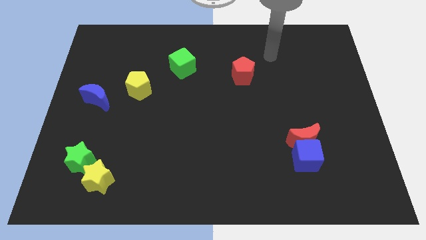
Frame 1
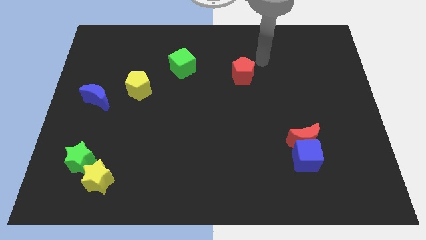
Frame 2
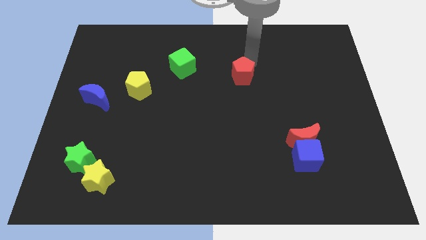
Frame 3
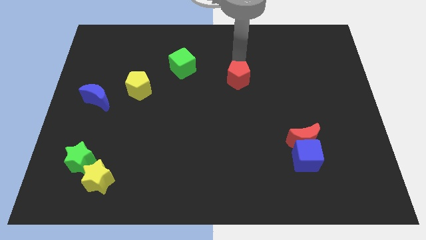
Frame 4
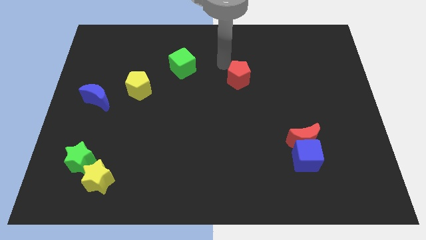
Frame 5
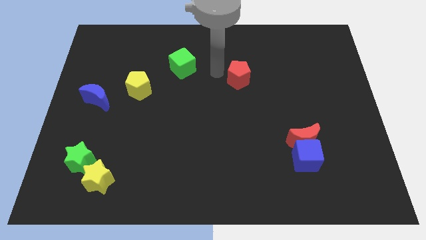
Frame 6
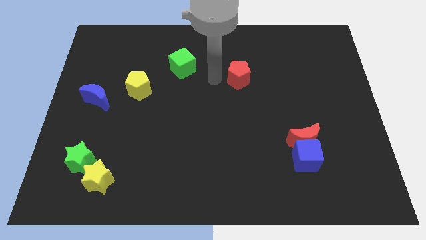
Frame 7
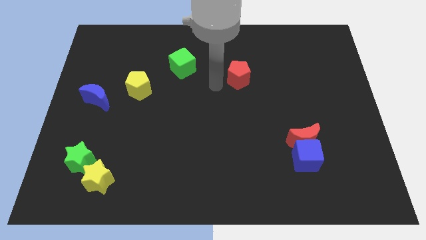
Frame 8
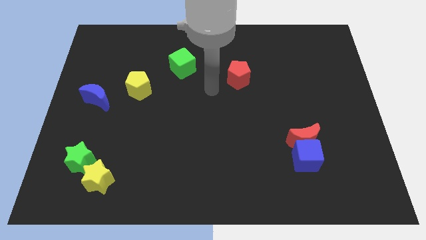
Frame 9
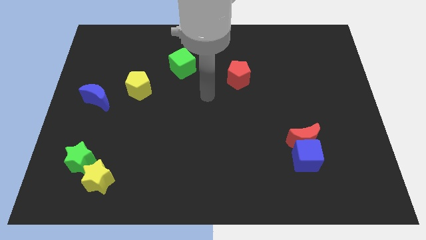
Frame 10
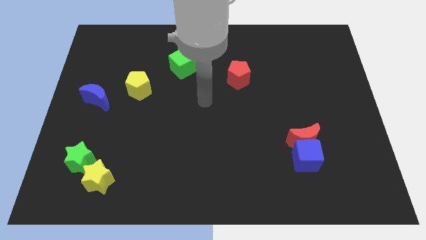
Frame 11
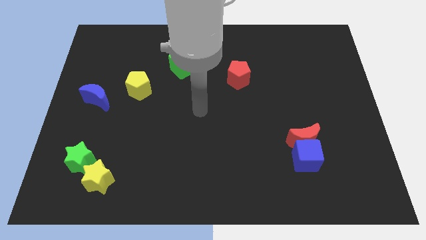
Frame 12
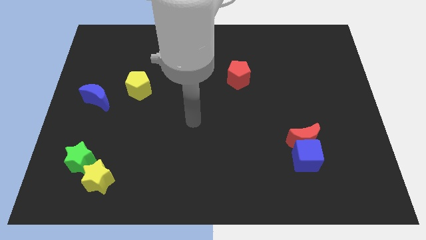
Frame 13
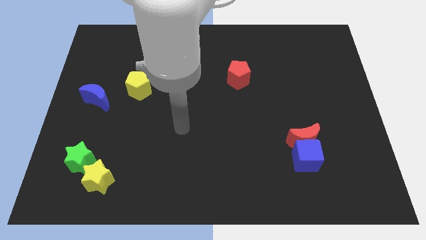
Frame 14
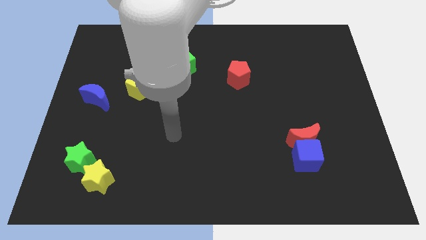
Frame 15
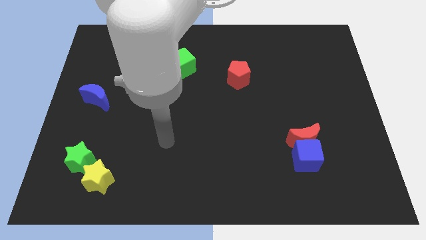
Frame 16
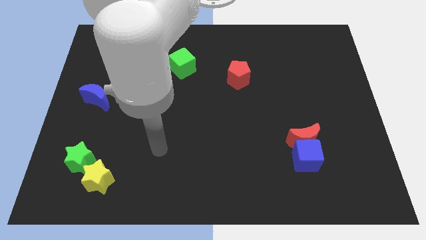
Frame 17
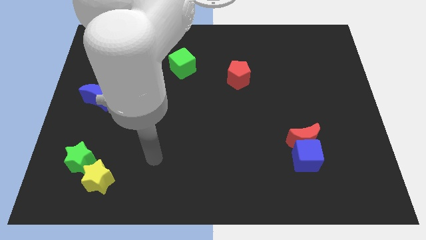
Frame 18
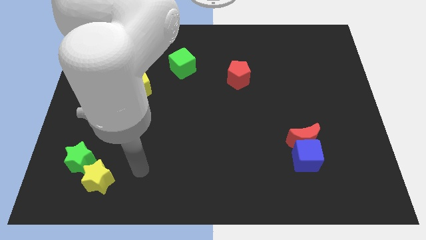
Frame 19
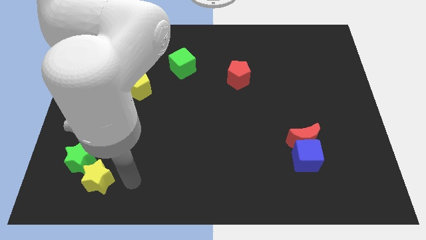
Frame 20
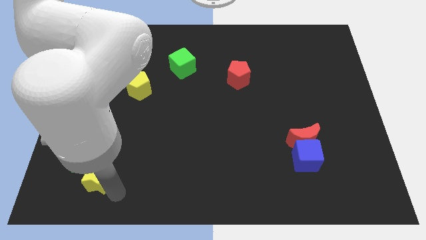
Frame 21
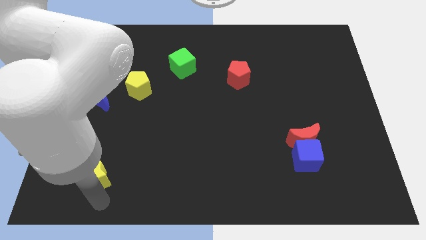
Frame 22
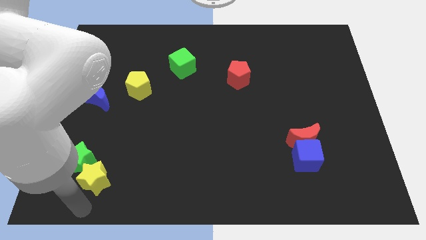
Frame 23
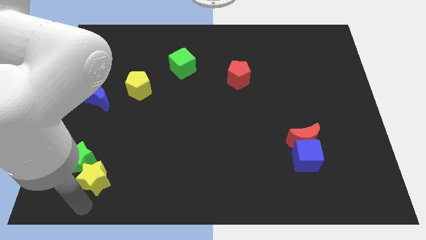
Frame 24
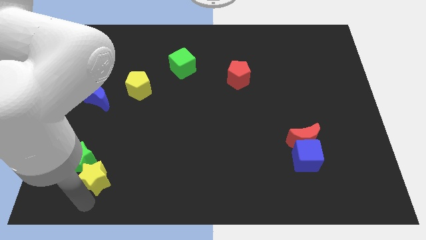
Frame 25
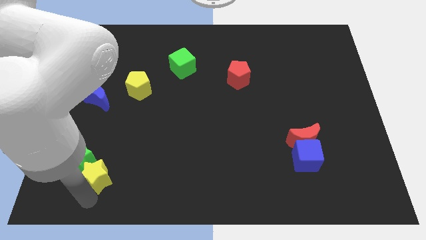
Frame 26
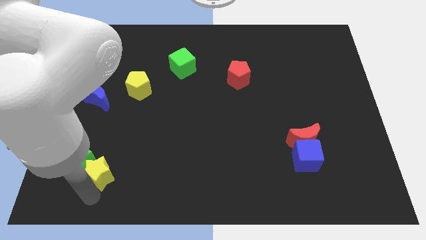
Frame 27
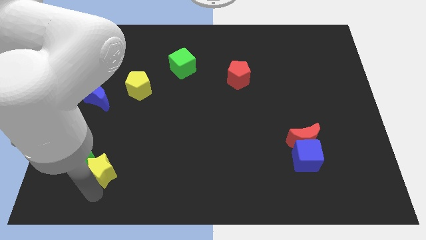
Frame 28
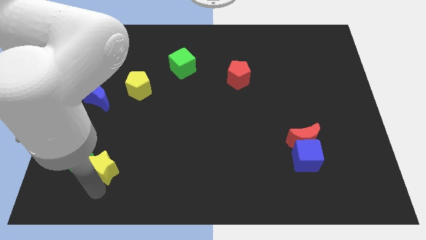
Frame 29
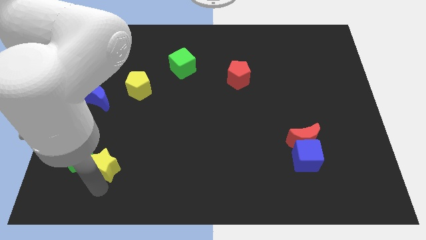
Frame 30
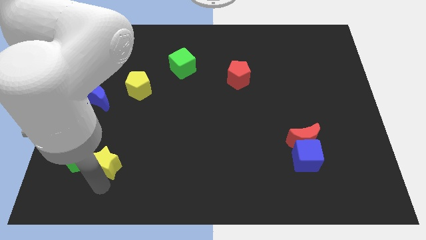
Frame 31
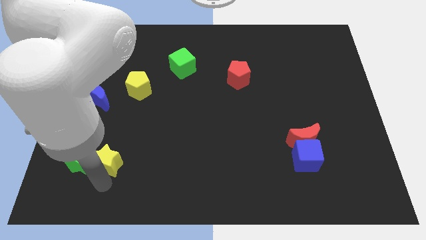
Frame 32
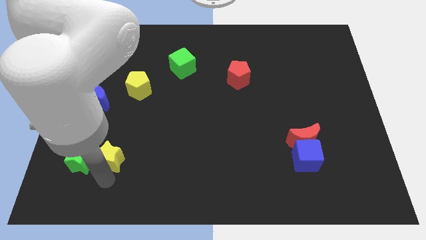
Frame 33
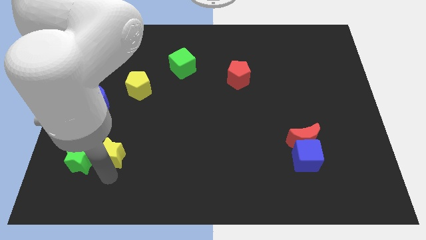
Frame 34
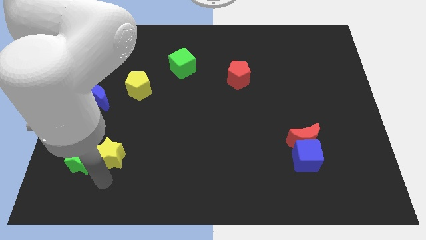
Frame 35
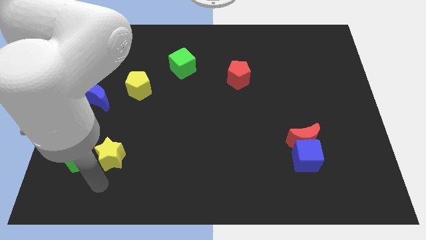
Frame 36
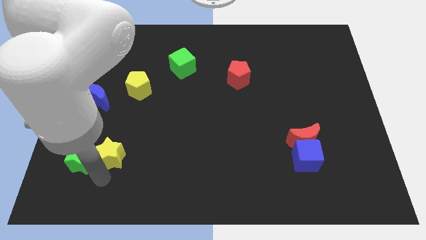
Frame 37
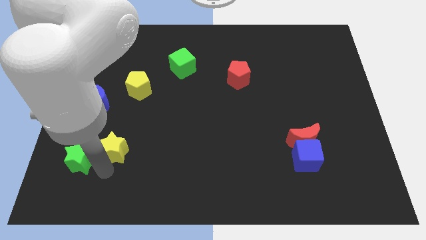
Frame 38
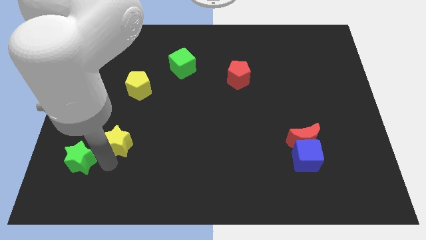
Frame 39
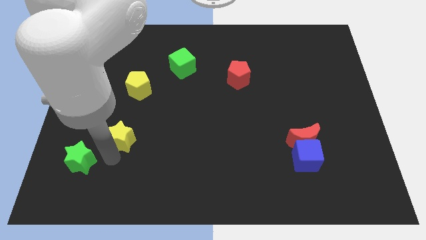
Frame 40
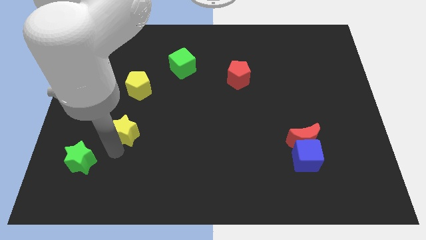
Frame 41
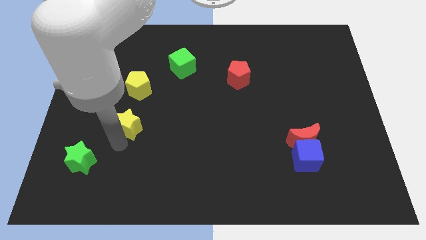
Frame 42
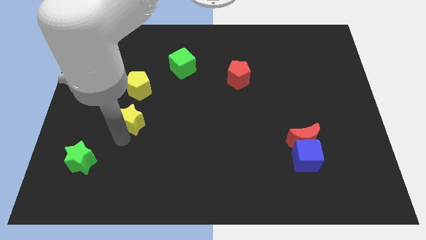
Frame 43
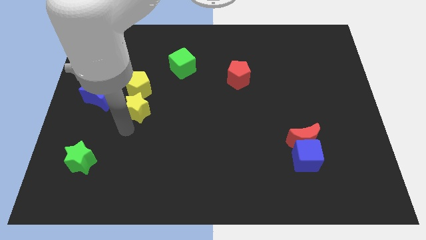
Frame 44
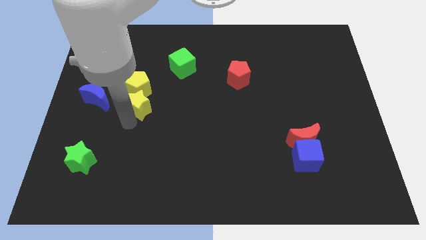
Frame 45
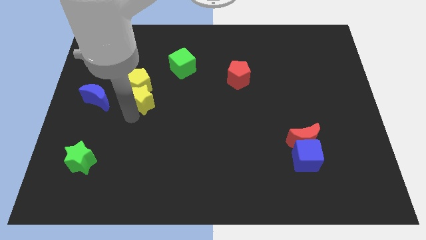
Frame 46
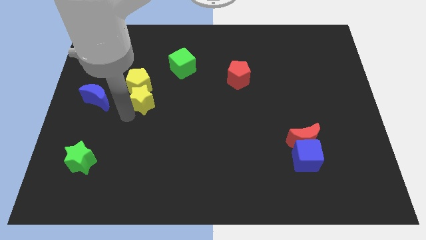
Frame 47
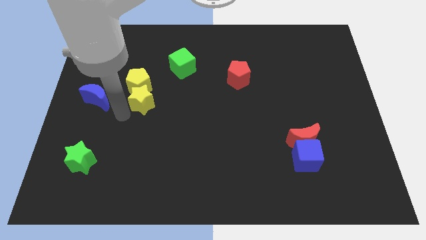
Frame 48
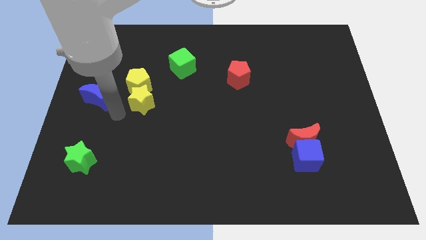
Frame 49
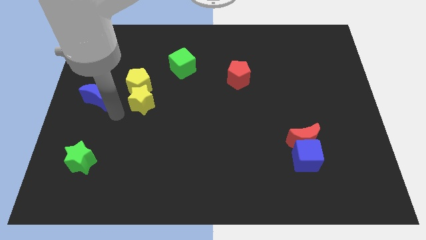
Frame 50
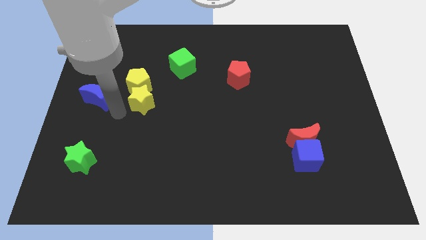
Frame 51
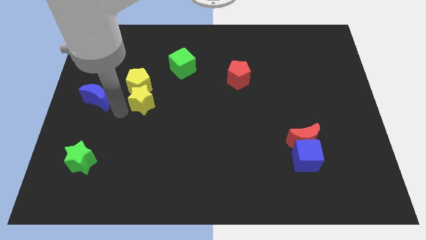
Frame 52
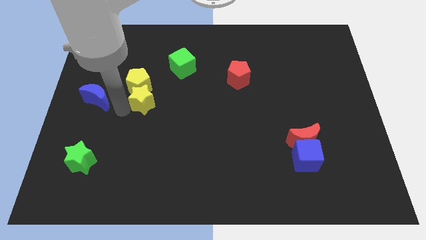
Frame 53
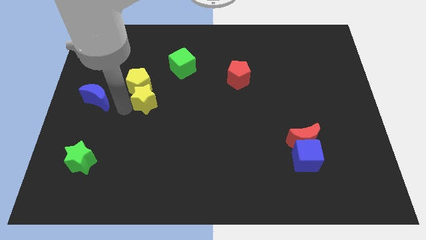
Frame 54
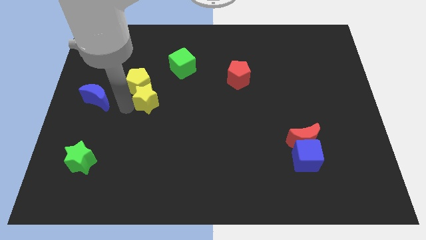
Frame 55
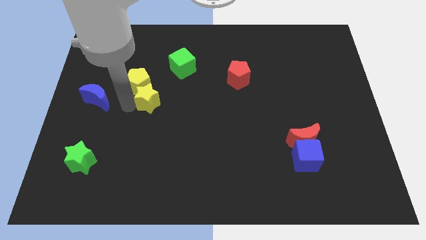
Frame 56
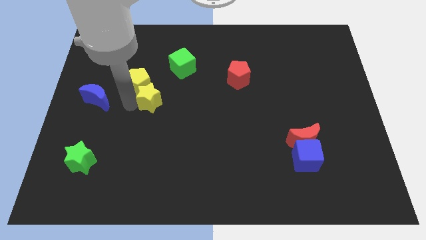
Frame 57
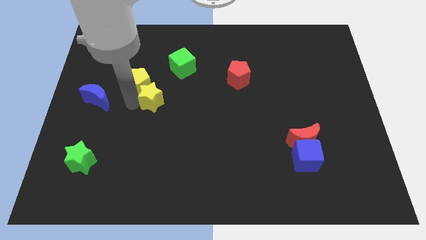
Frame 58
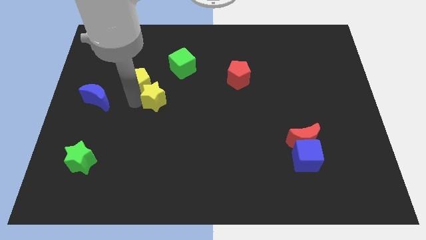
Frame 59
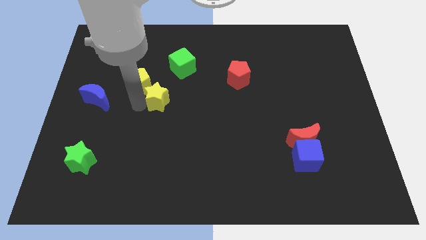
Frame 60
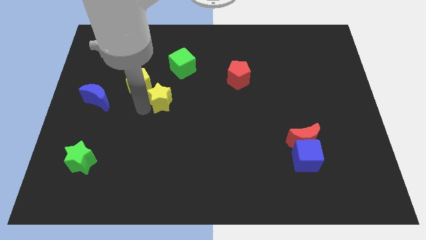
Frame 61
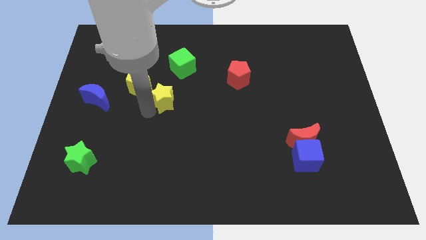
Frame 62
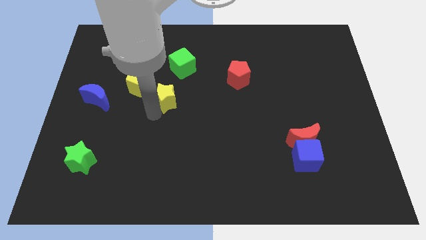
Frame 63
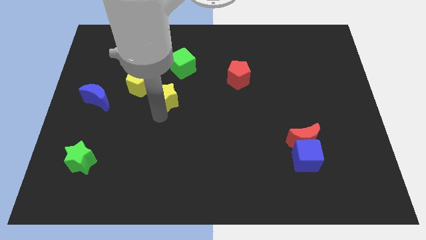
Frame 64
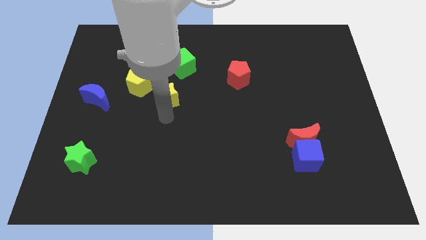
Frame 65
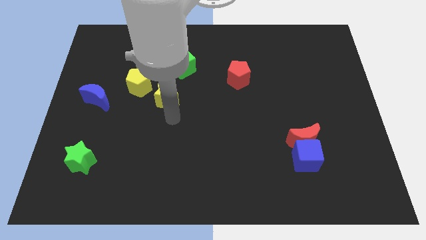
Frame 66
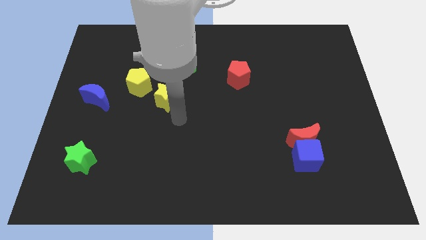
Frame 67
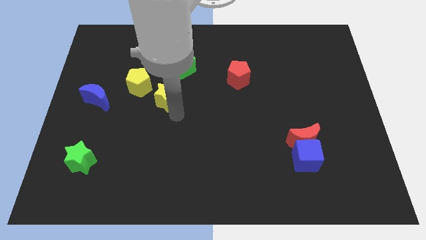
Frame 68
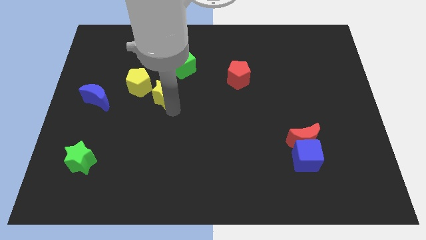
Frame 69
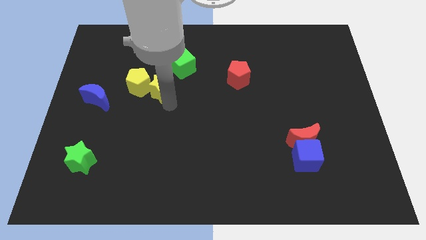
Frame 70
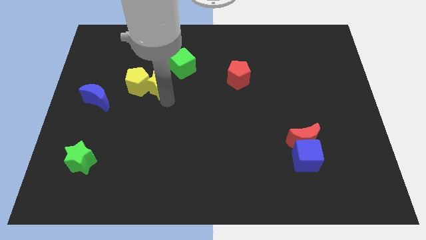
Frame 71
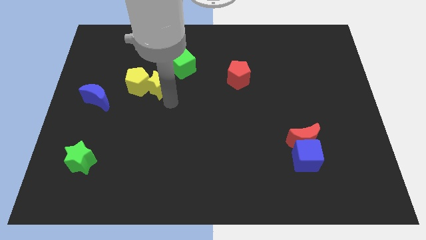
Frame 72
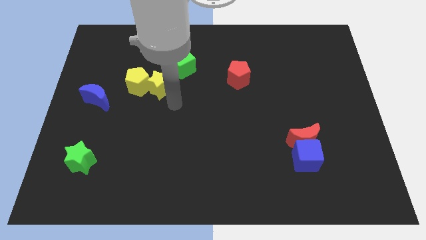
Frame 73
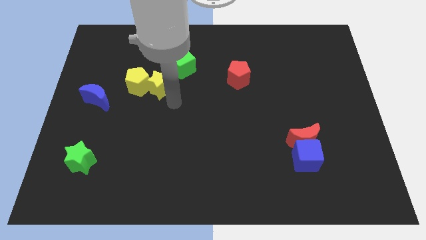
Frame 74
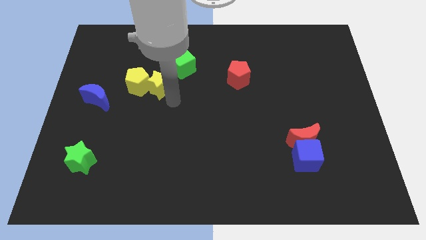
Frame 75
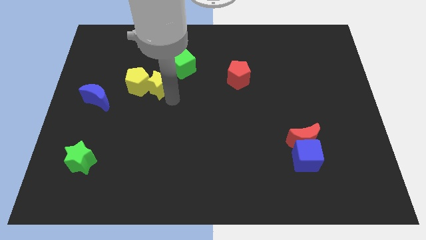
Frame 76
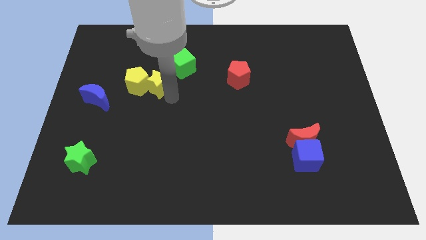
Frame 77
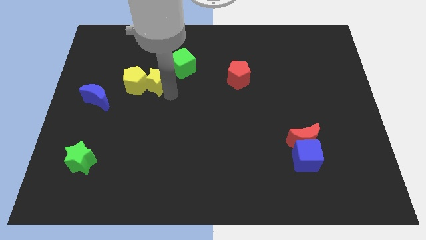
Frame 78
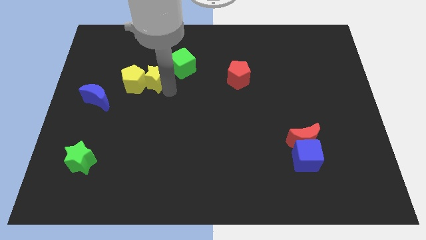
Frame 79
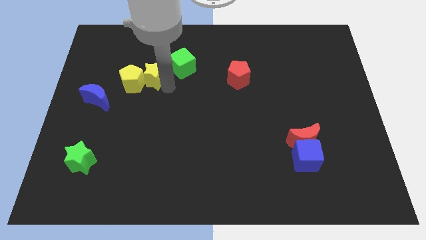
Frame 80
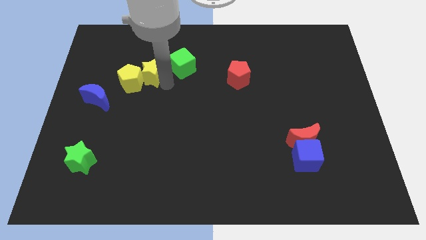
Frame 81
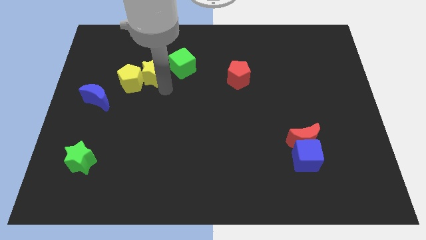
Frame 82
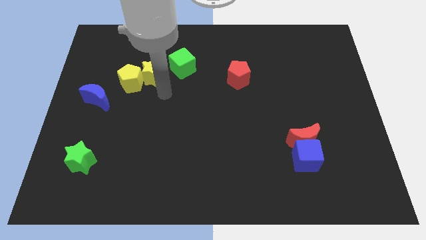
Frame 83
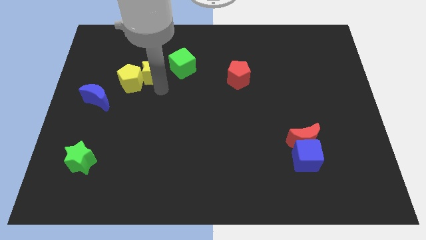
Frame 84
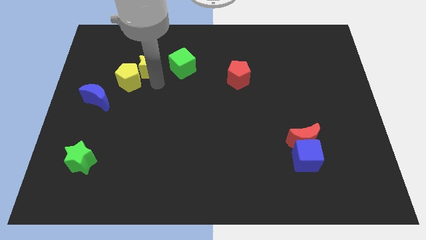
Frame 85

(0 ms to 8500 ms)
move the yellow star to the top side of the yellow pentagon
